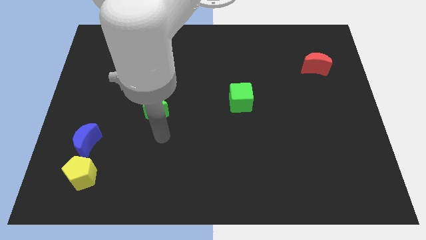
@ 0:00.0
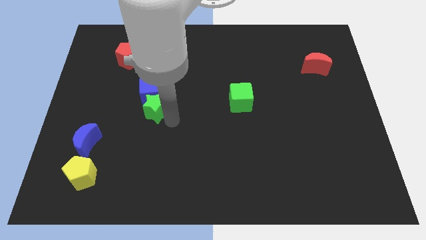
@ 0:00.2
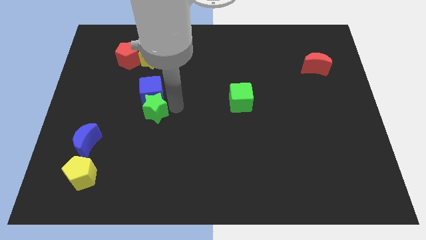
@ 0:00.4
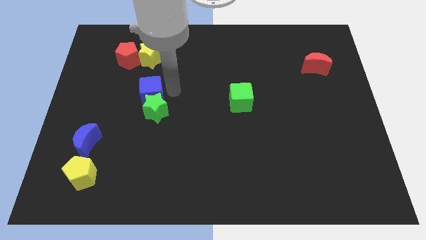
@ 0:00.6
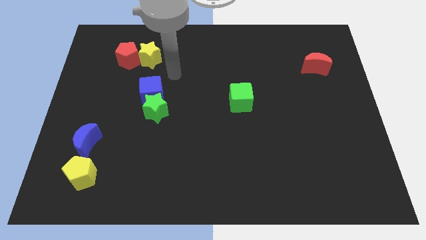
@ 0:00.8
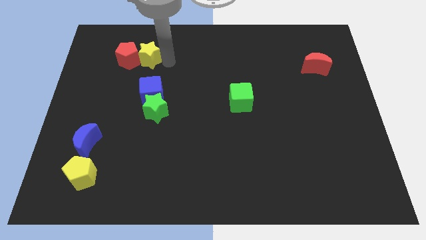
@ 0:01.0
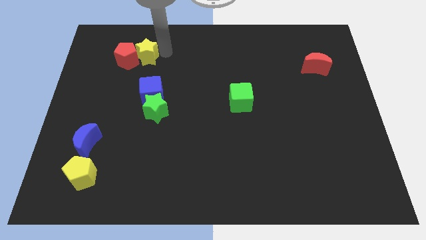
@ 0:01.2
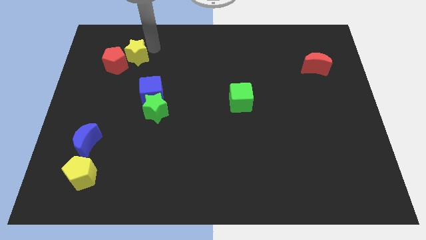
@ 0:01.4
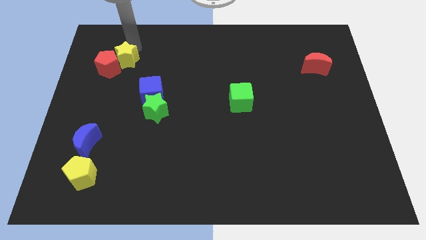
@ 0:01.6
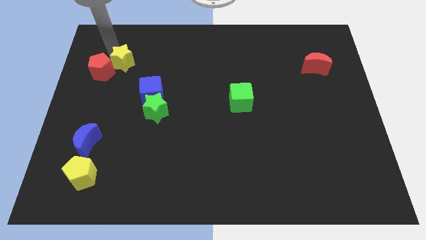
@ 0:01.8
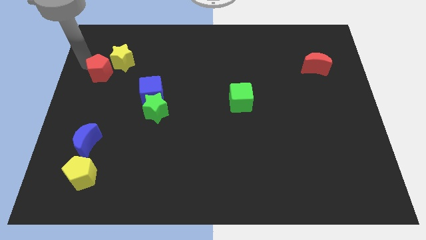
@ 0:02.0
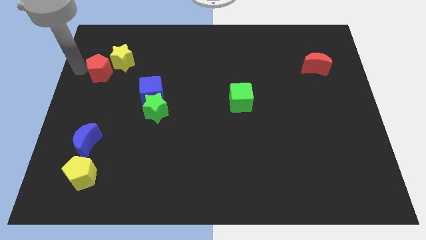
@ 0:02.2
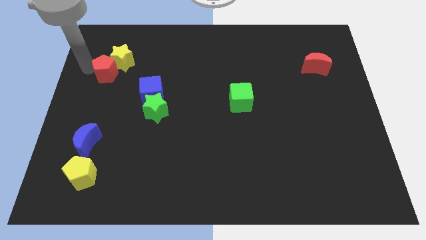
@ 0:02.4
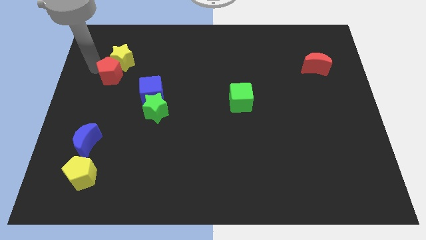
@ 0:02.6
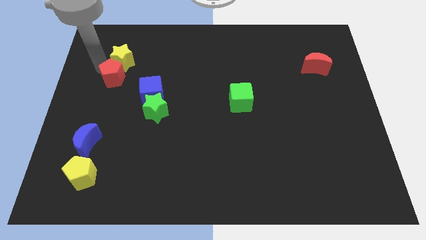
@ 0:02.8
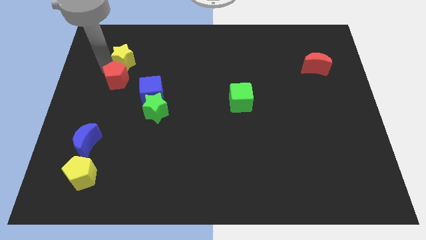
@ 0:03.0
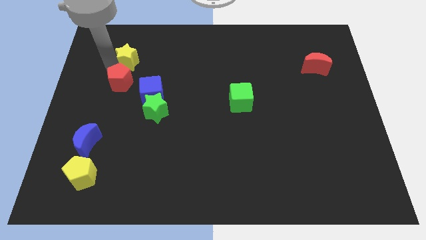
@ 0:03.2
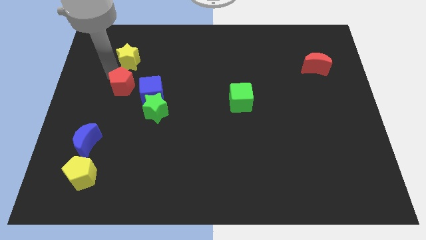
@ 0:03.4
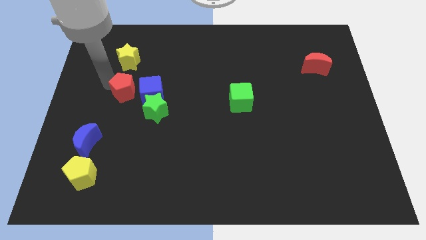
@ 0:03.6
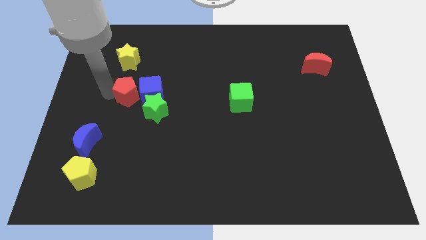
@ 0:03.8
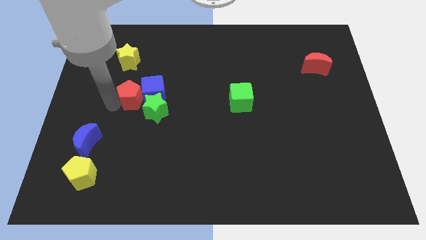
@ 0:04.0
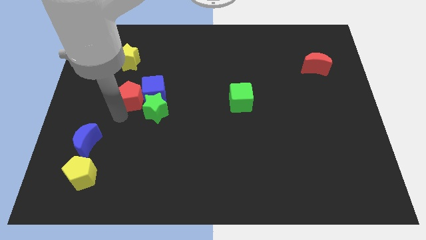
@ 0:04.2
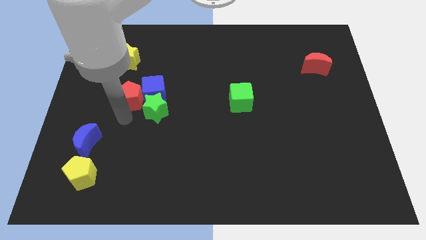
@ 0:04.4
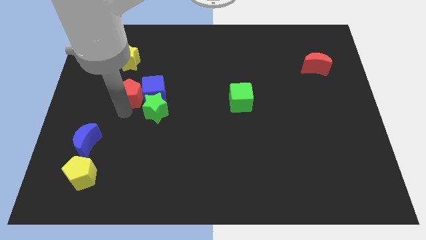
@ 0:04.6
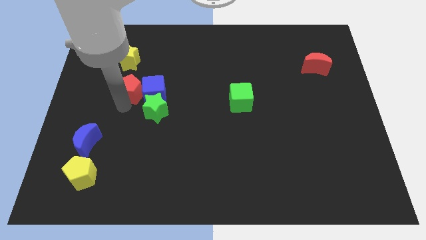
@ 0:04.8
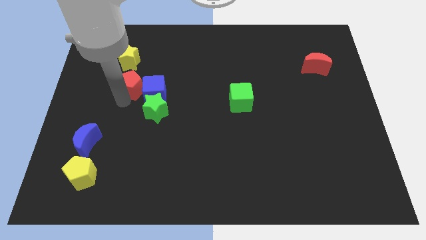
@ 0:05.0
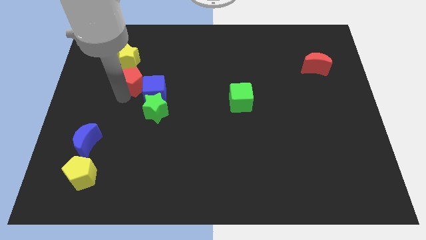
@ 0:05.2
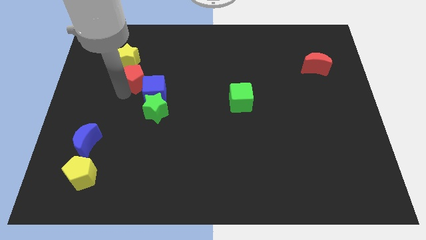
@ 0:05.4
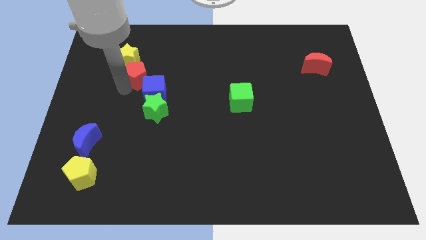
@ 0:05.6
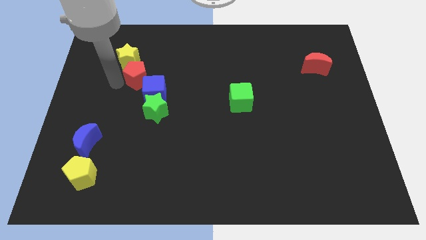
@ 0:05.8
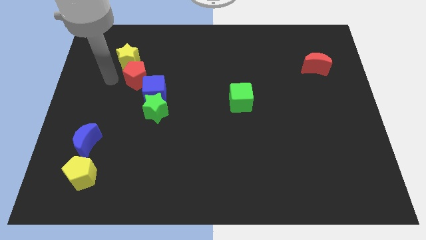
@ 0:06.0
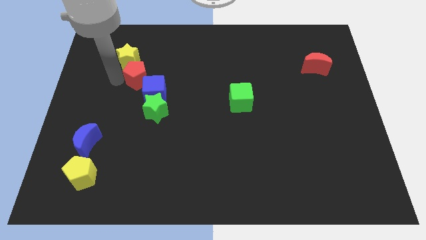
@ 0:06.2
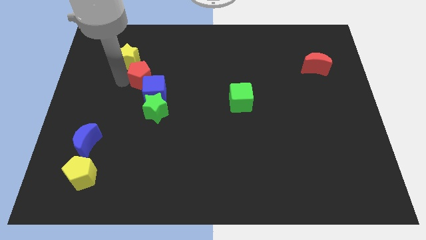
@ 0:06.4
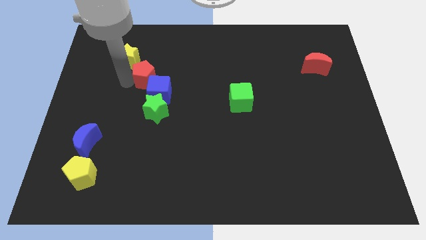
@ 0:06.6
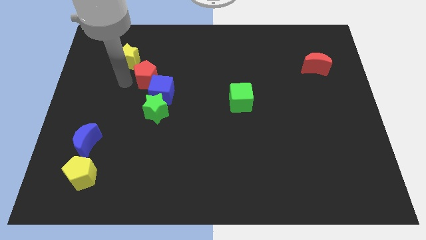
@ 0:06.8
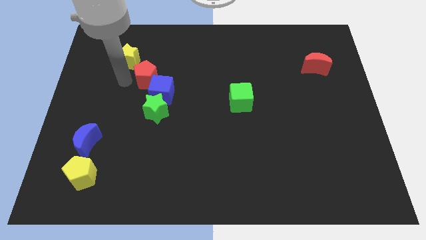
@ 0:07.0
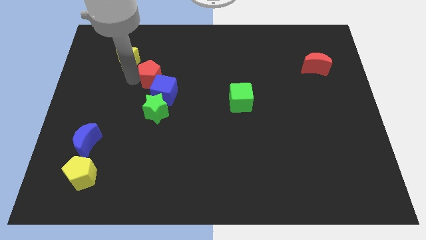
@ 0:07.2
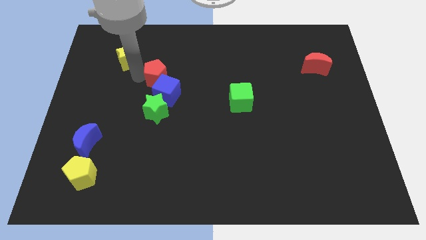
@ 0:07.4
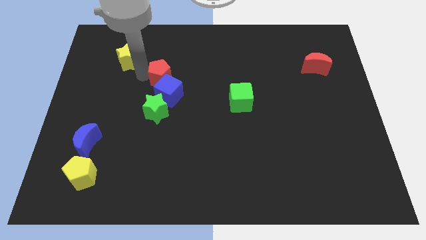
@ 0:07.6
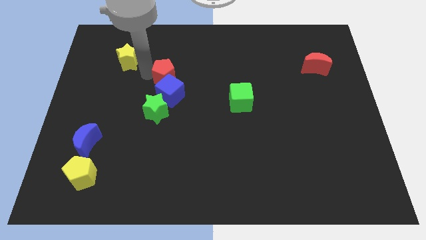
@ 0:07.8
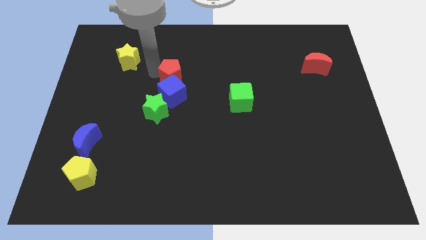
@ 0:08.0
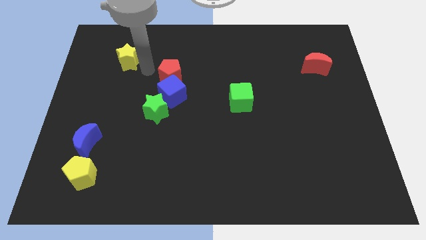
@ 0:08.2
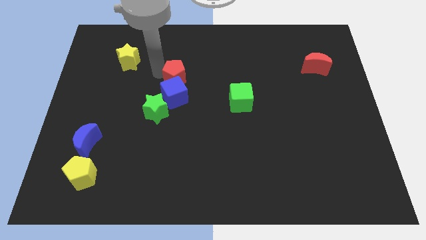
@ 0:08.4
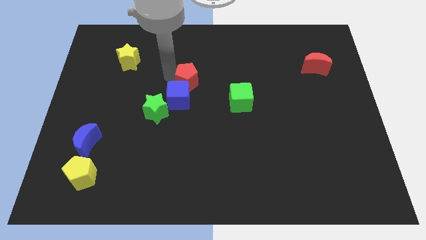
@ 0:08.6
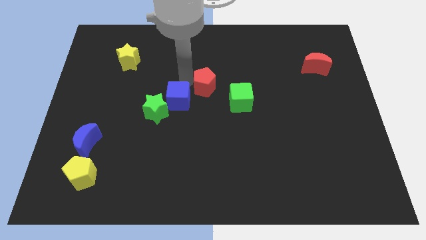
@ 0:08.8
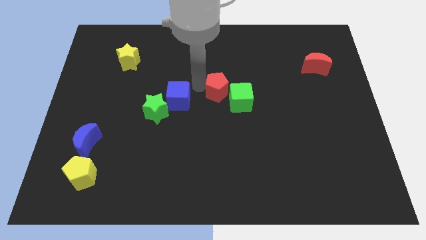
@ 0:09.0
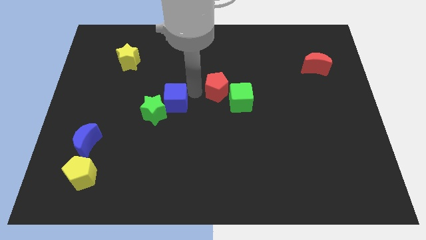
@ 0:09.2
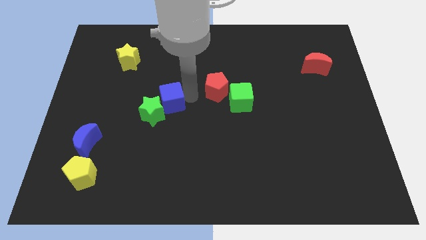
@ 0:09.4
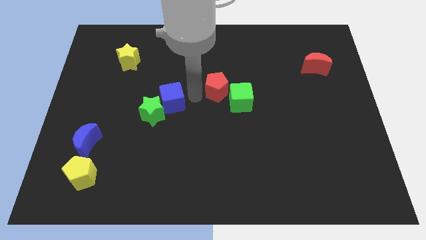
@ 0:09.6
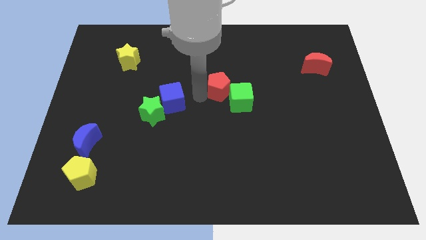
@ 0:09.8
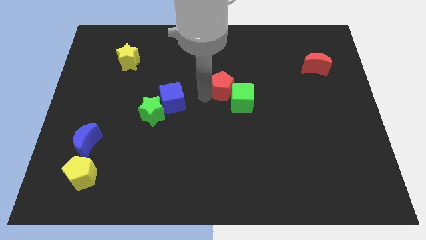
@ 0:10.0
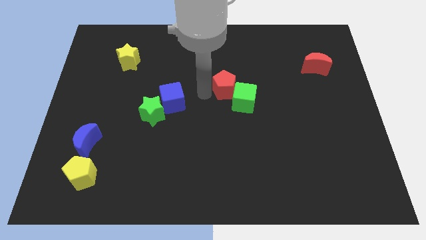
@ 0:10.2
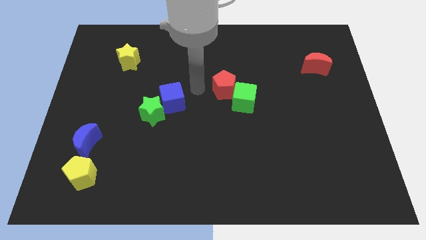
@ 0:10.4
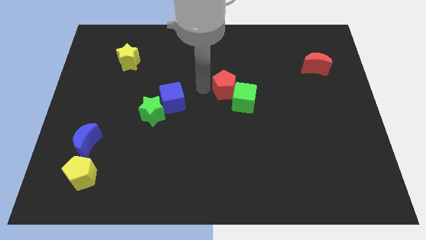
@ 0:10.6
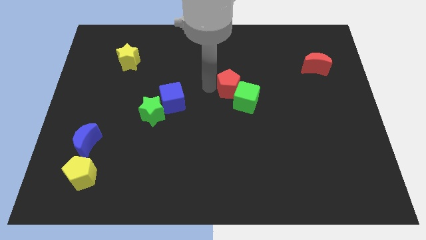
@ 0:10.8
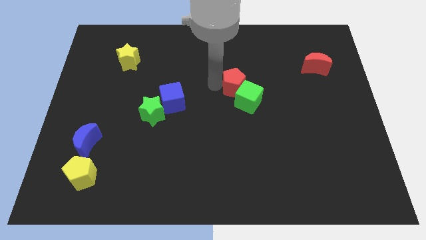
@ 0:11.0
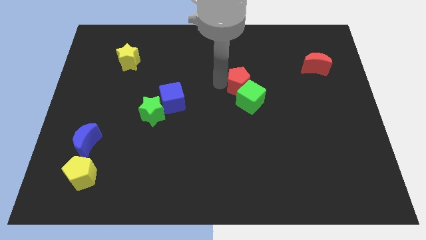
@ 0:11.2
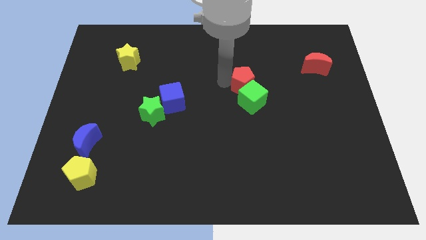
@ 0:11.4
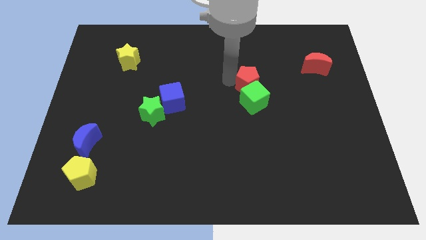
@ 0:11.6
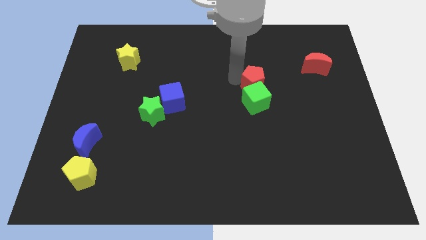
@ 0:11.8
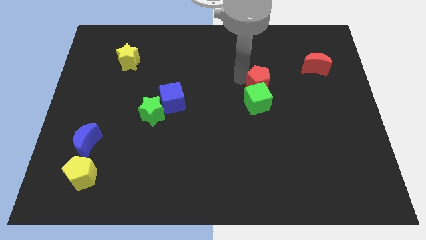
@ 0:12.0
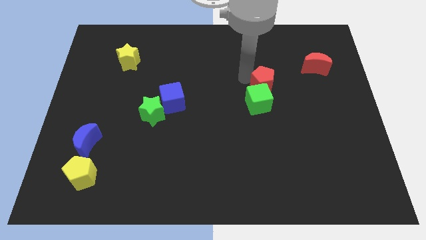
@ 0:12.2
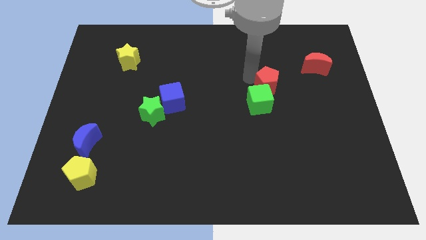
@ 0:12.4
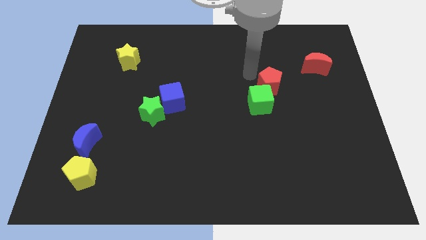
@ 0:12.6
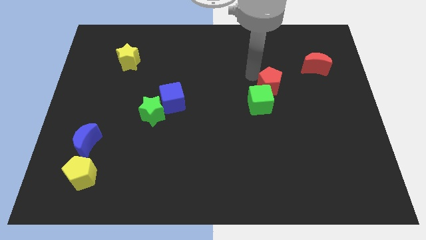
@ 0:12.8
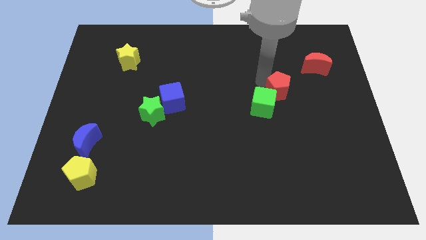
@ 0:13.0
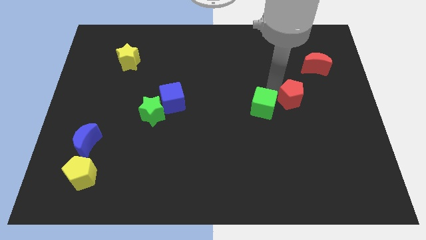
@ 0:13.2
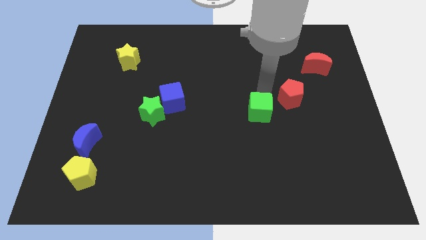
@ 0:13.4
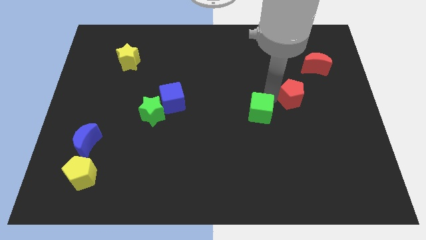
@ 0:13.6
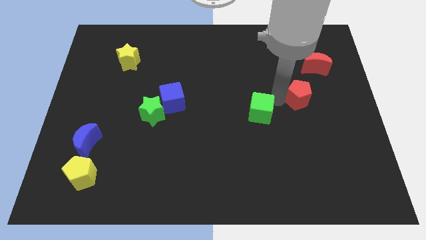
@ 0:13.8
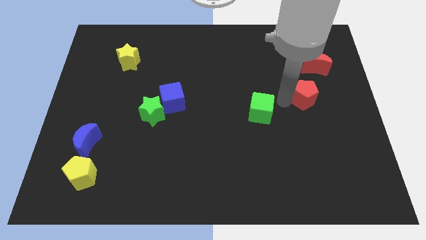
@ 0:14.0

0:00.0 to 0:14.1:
push the red pentagon to the bottom of the red moon

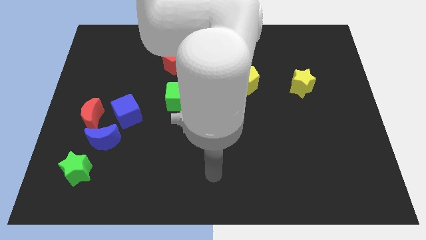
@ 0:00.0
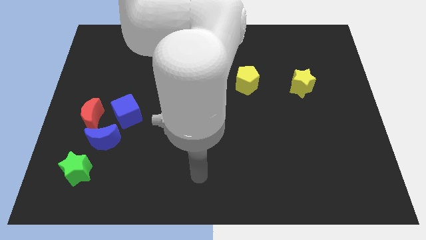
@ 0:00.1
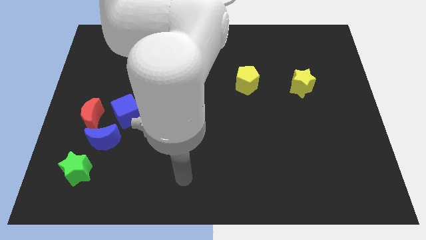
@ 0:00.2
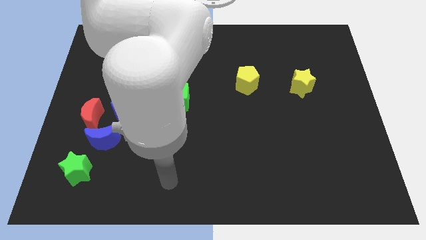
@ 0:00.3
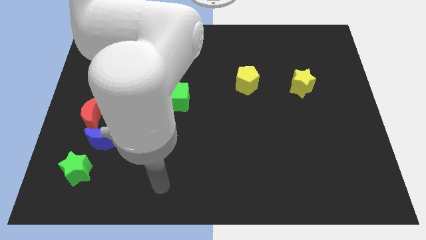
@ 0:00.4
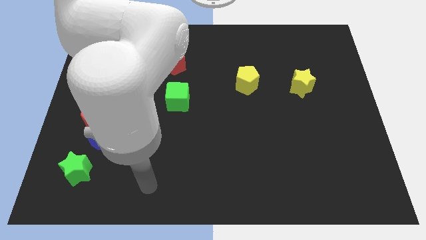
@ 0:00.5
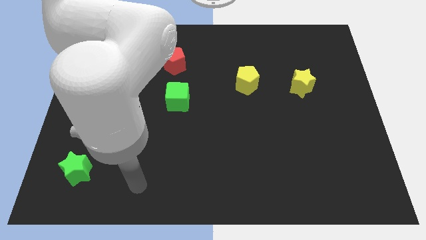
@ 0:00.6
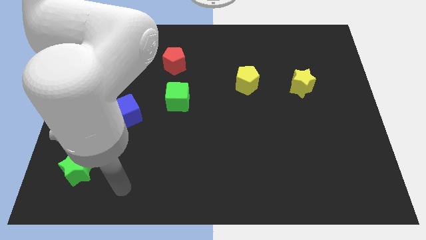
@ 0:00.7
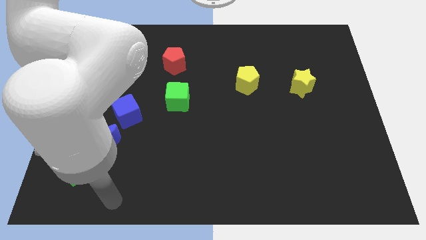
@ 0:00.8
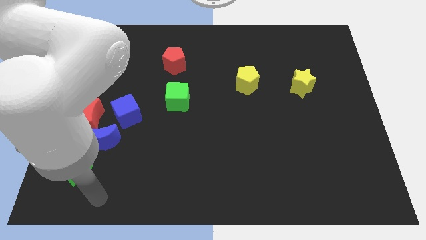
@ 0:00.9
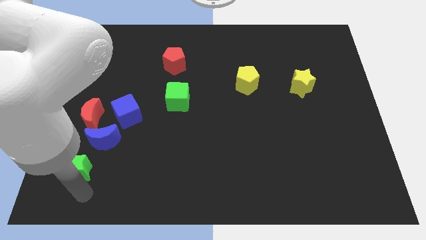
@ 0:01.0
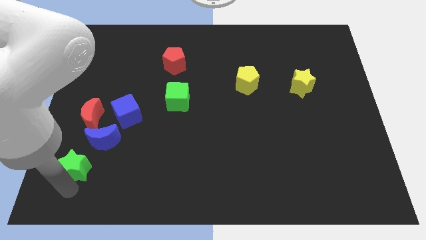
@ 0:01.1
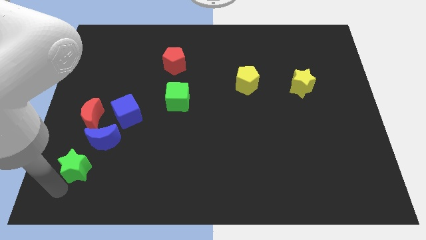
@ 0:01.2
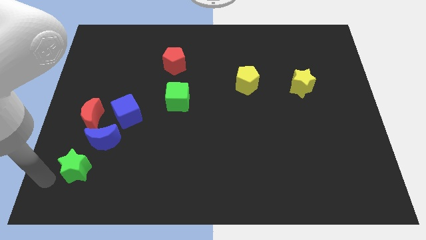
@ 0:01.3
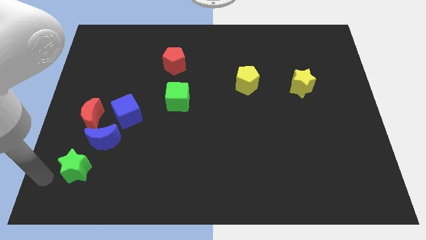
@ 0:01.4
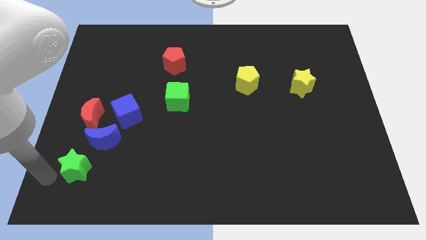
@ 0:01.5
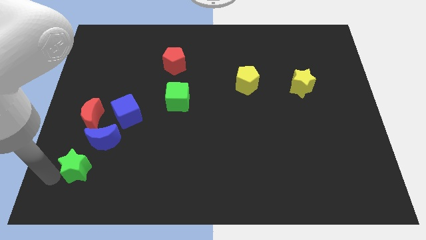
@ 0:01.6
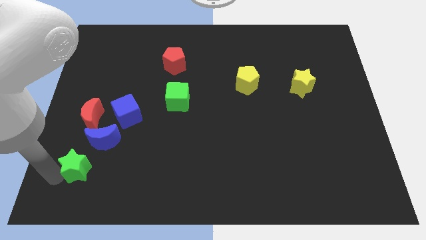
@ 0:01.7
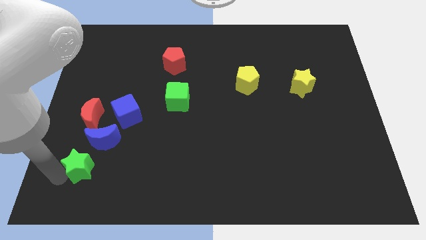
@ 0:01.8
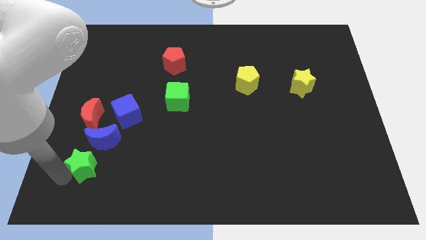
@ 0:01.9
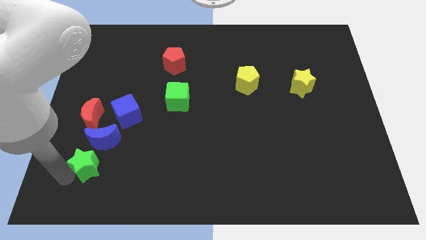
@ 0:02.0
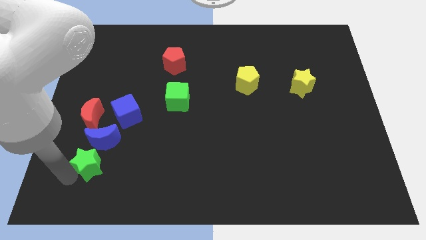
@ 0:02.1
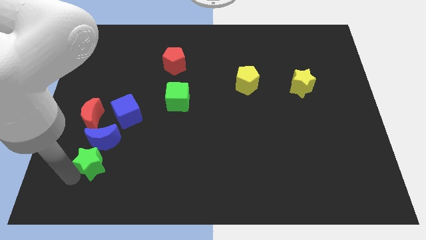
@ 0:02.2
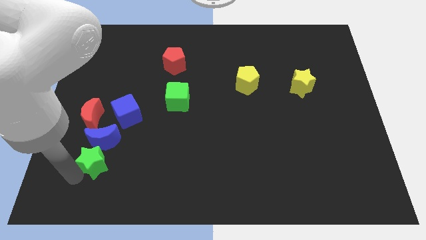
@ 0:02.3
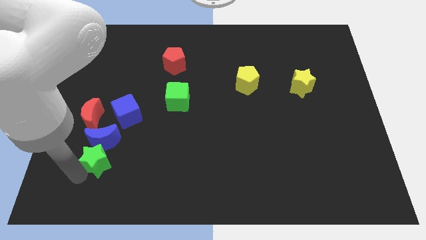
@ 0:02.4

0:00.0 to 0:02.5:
push the green star to the bottom of the blue cube
